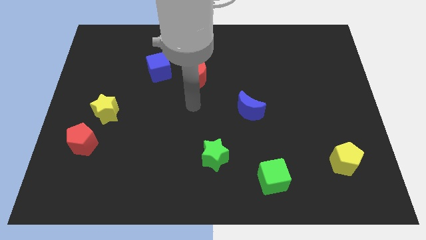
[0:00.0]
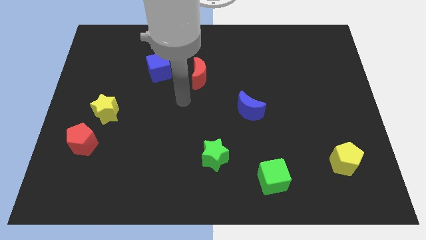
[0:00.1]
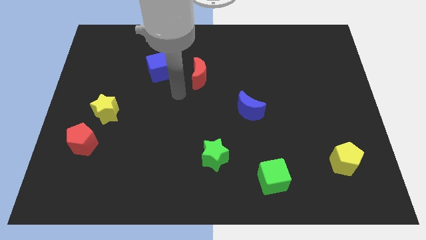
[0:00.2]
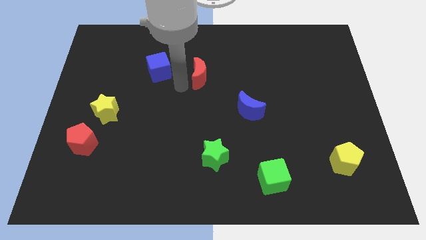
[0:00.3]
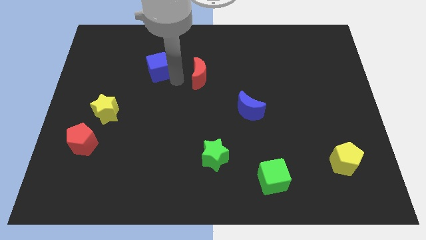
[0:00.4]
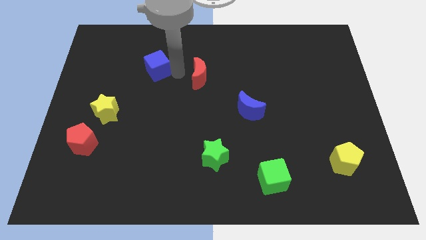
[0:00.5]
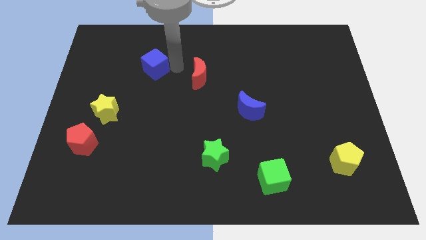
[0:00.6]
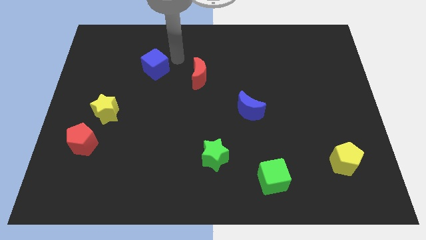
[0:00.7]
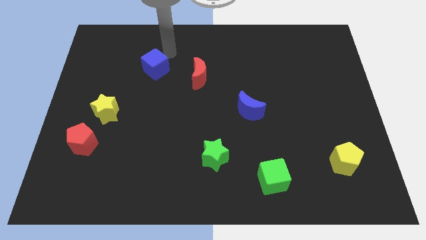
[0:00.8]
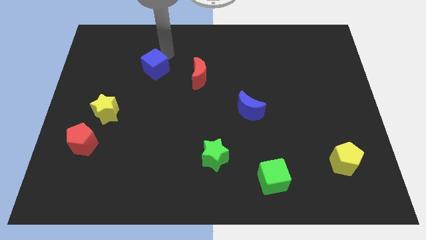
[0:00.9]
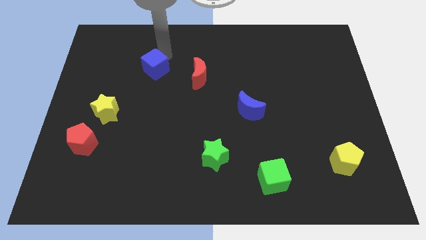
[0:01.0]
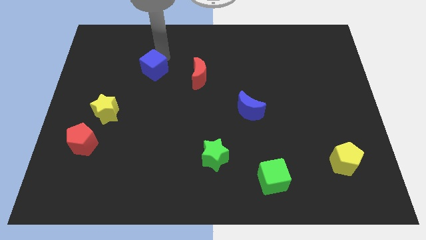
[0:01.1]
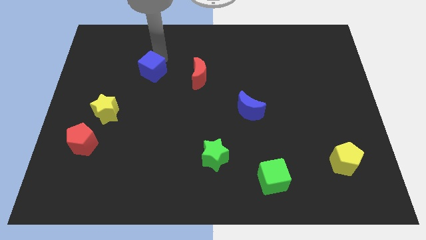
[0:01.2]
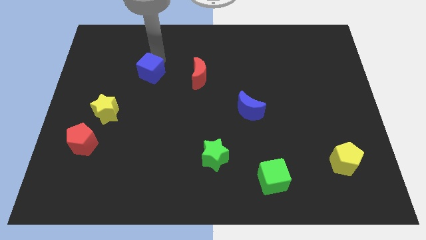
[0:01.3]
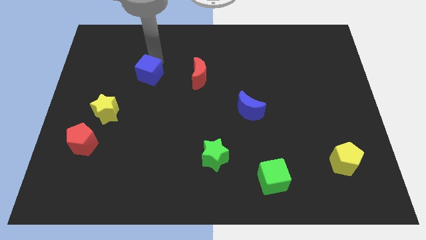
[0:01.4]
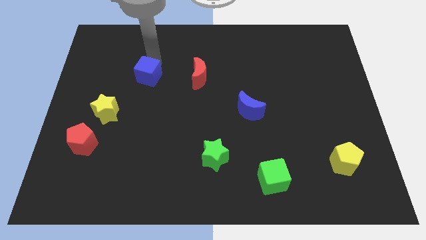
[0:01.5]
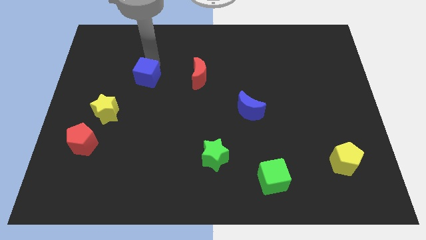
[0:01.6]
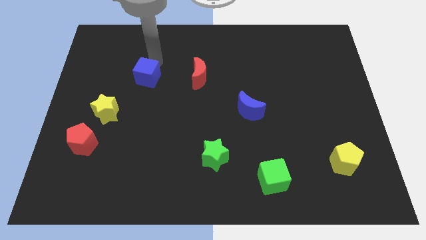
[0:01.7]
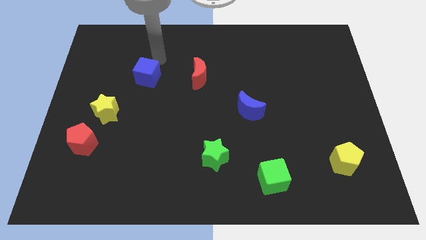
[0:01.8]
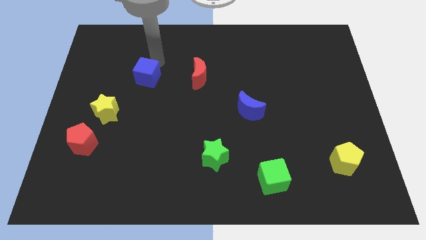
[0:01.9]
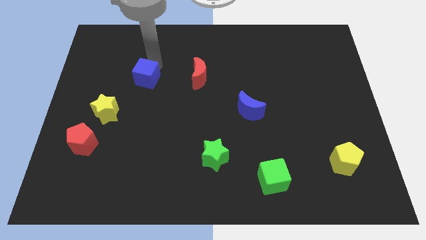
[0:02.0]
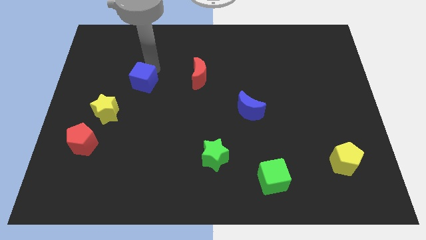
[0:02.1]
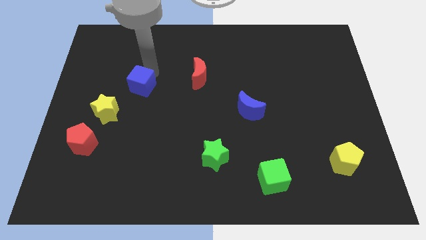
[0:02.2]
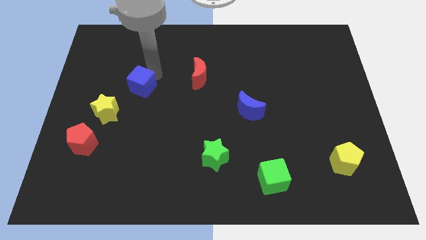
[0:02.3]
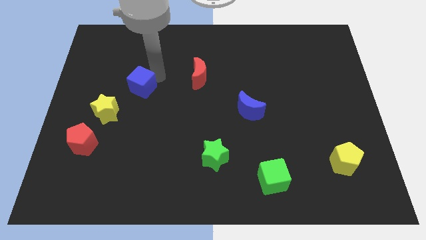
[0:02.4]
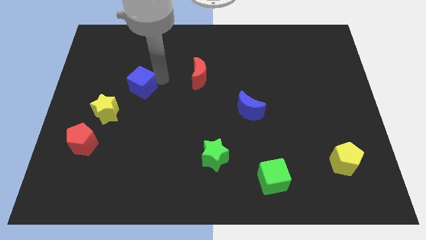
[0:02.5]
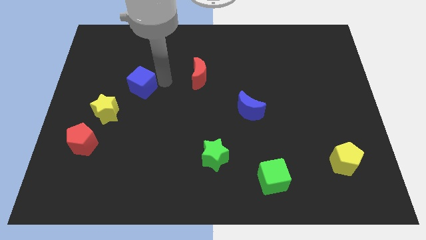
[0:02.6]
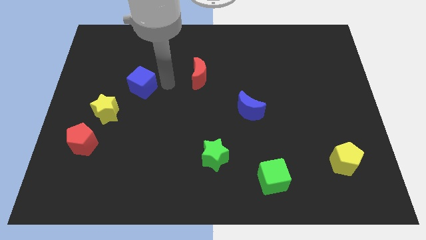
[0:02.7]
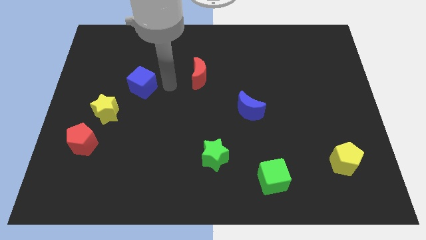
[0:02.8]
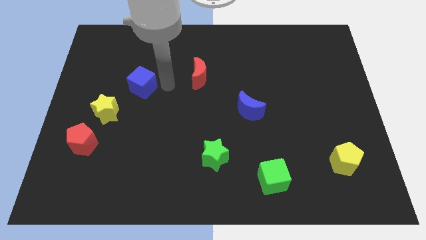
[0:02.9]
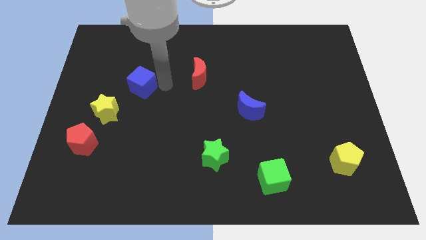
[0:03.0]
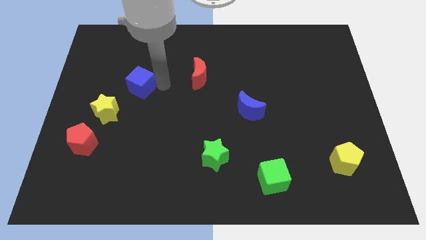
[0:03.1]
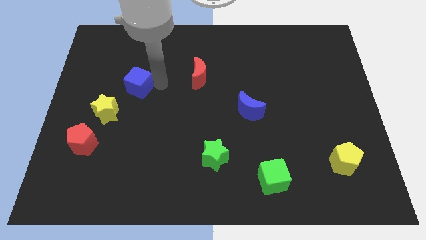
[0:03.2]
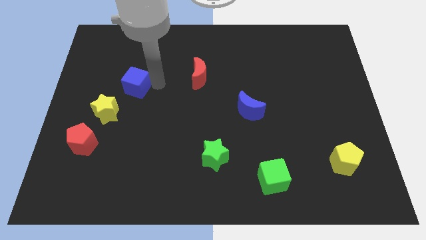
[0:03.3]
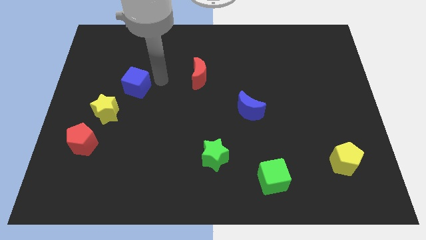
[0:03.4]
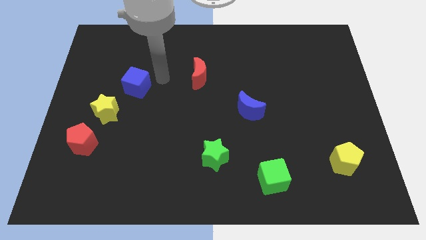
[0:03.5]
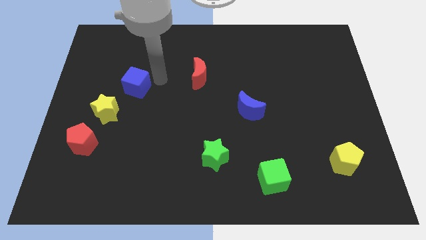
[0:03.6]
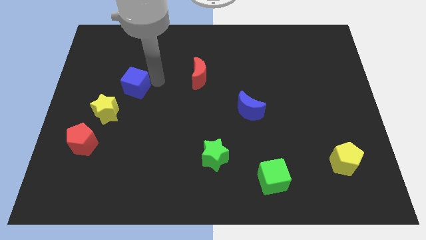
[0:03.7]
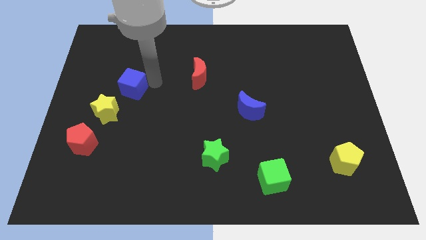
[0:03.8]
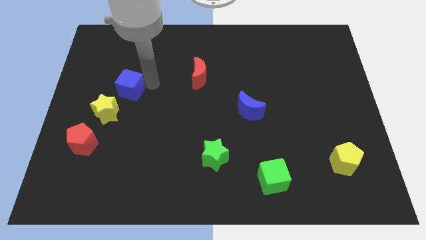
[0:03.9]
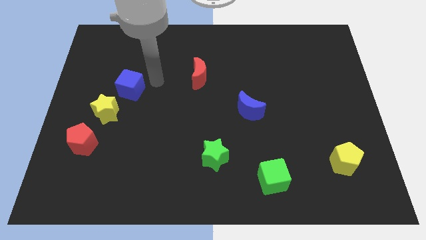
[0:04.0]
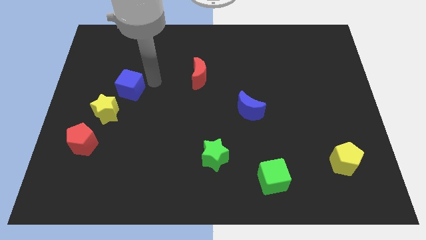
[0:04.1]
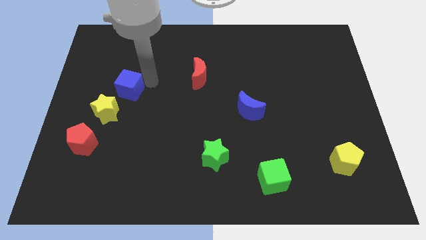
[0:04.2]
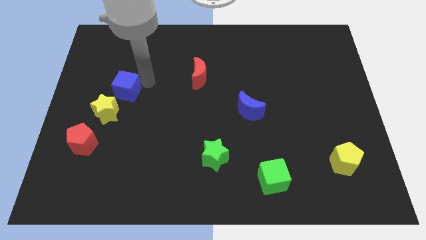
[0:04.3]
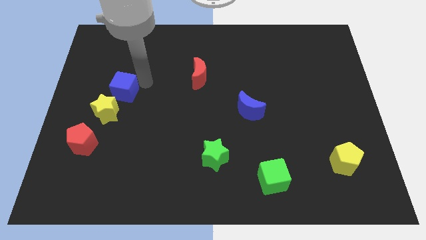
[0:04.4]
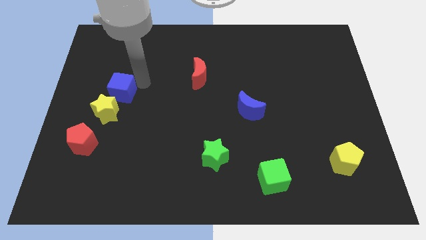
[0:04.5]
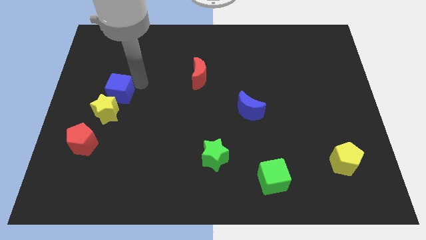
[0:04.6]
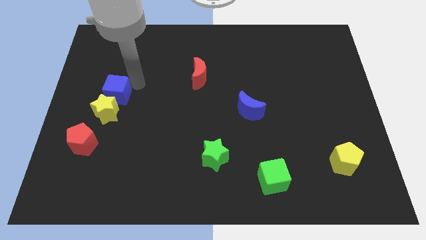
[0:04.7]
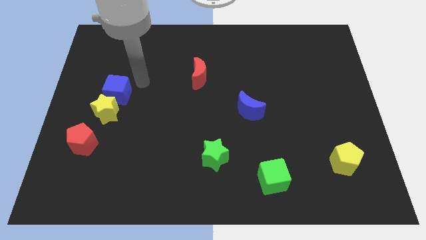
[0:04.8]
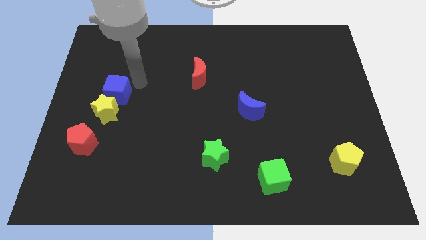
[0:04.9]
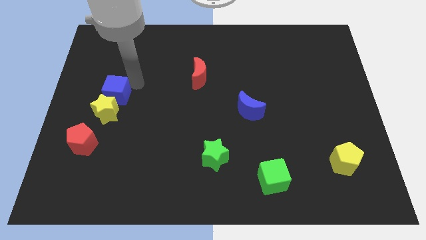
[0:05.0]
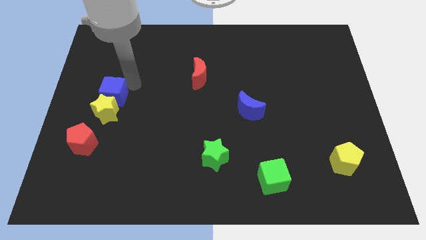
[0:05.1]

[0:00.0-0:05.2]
push the blue cube to the top of the red pentagon

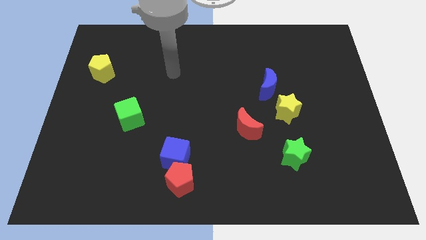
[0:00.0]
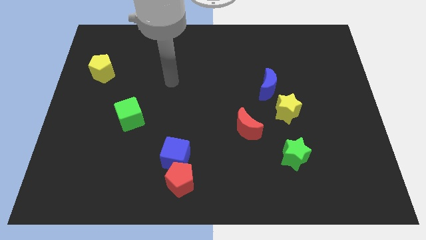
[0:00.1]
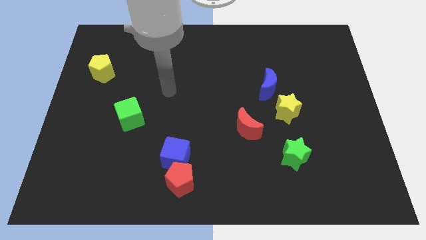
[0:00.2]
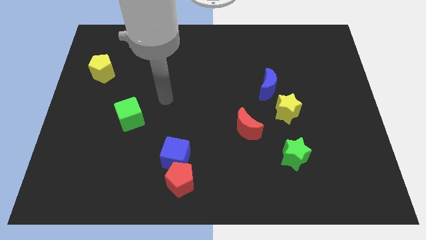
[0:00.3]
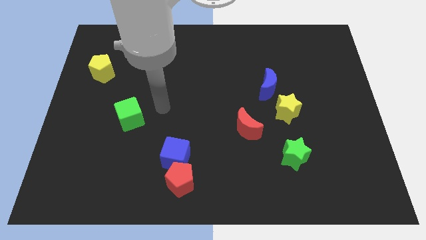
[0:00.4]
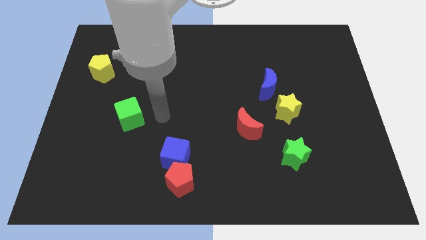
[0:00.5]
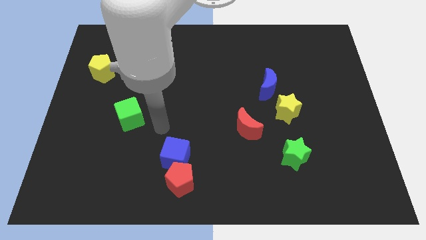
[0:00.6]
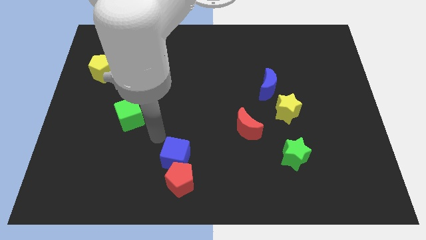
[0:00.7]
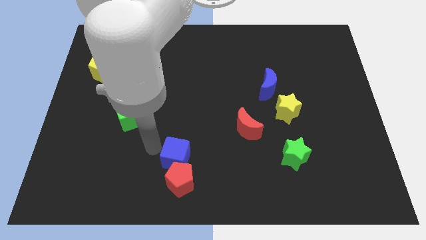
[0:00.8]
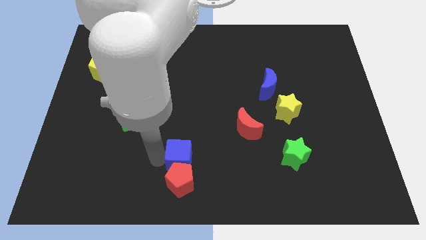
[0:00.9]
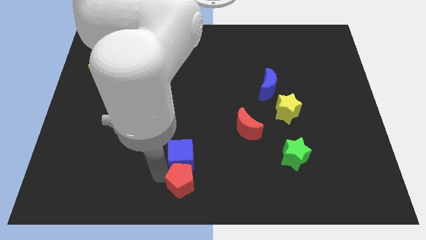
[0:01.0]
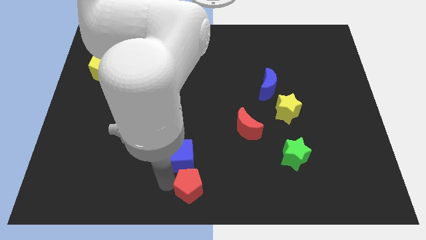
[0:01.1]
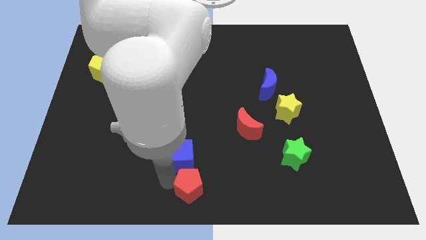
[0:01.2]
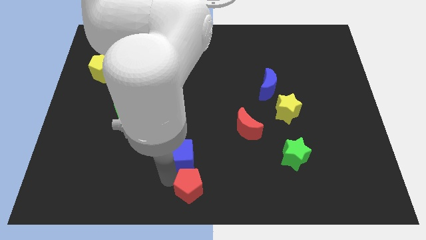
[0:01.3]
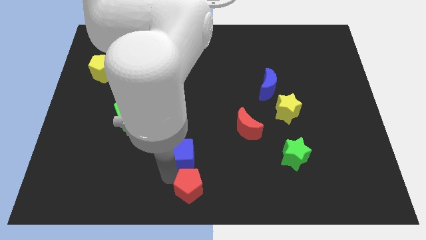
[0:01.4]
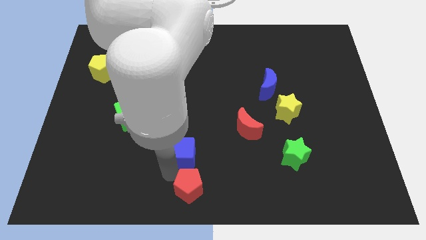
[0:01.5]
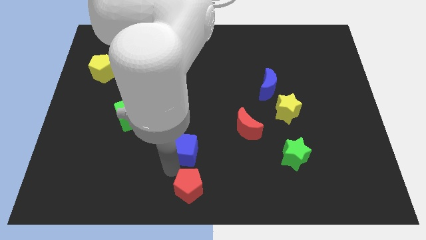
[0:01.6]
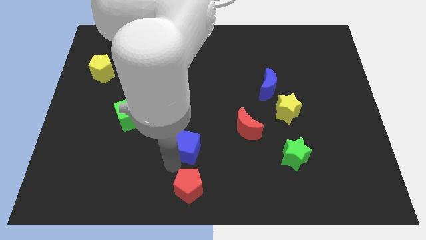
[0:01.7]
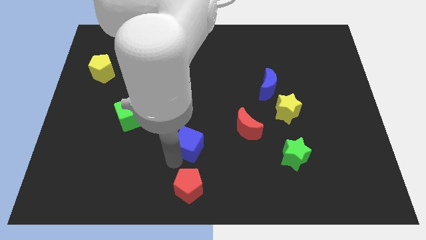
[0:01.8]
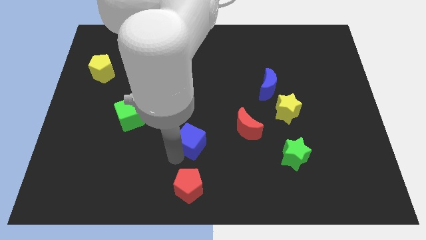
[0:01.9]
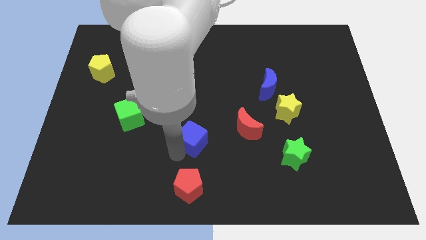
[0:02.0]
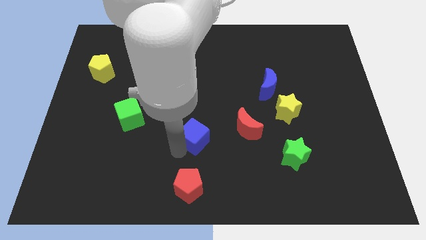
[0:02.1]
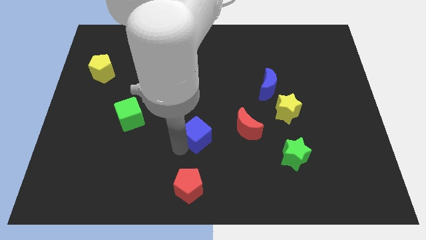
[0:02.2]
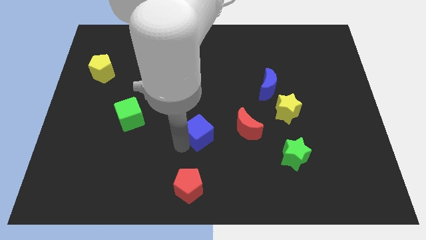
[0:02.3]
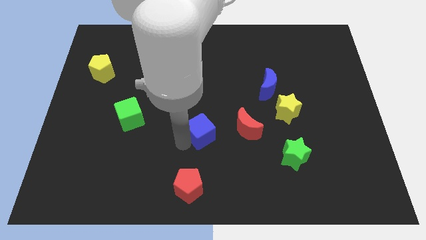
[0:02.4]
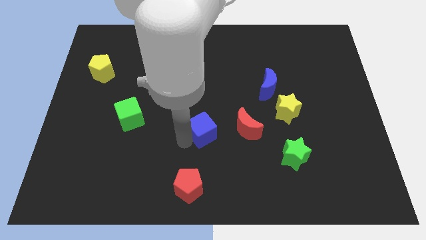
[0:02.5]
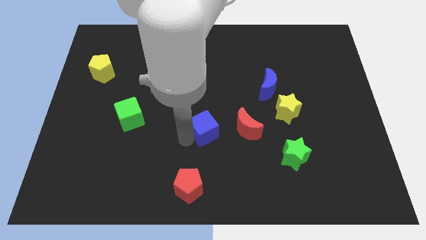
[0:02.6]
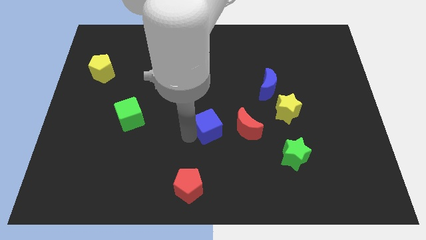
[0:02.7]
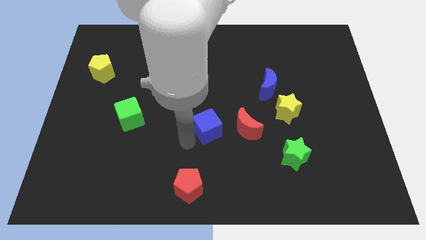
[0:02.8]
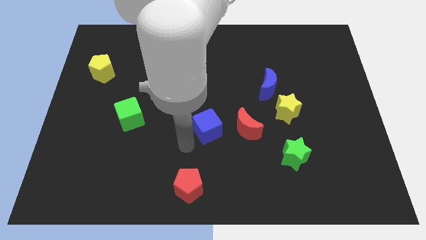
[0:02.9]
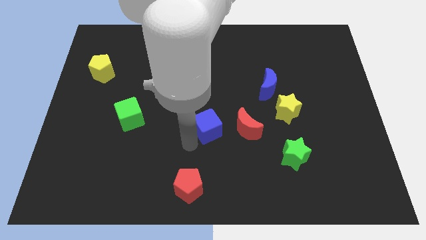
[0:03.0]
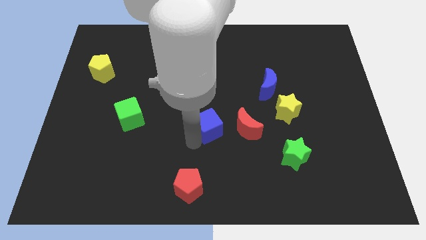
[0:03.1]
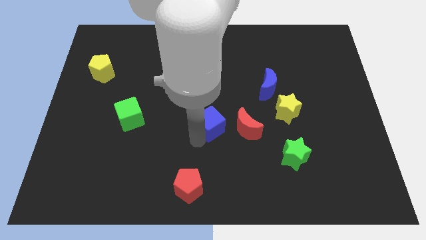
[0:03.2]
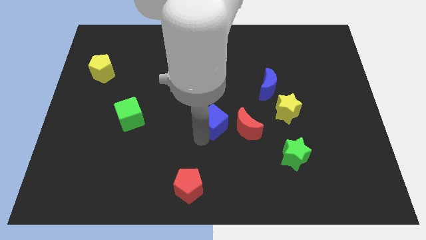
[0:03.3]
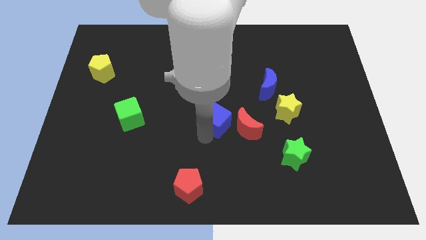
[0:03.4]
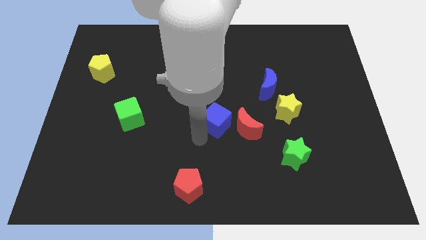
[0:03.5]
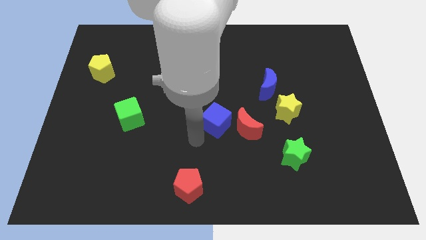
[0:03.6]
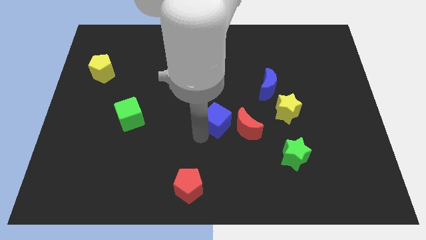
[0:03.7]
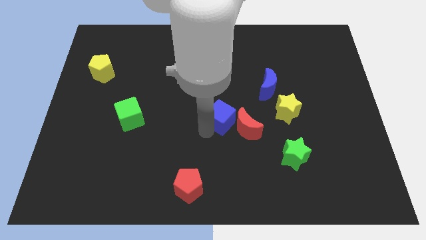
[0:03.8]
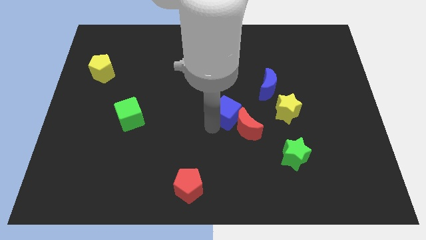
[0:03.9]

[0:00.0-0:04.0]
put the blue cube above the red moon
